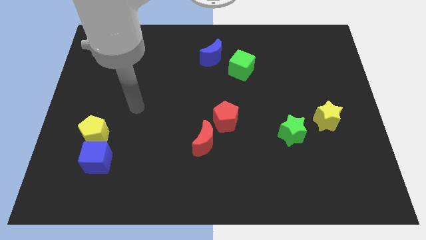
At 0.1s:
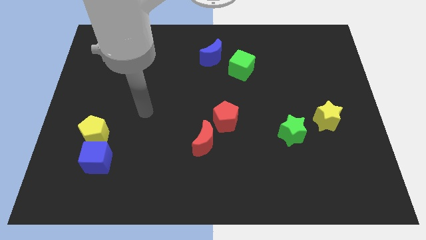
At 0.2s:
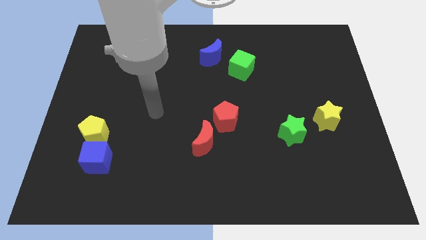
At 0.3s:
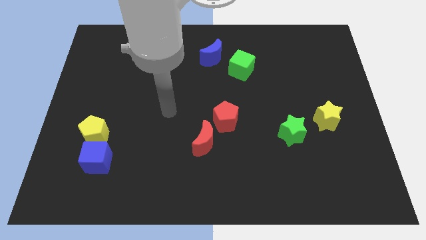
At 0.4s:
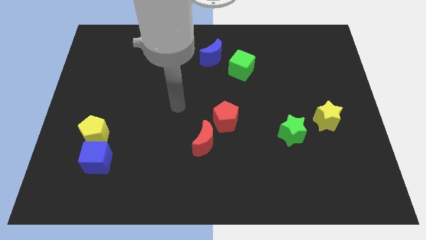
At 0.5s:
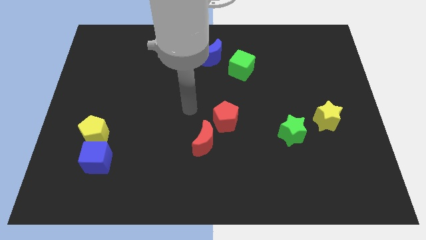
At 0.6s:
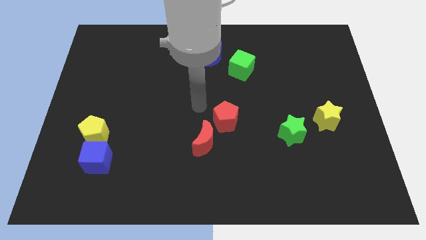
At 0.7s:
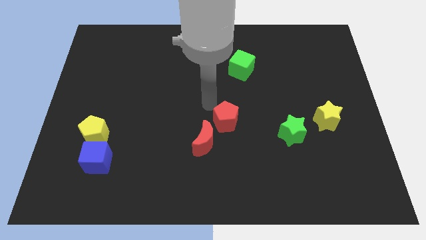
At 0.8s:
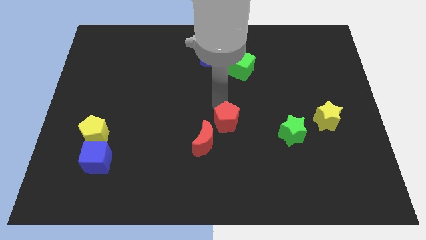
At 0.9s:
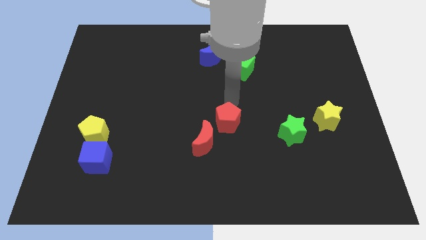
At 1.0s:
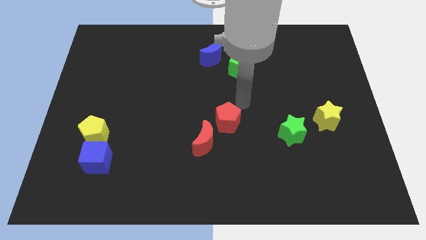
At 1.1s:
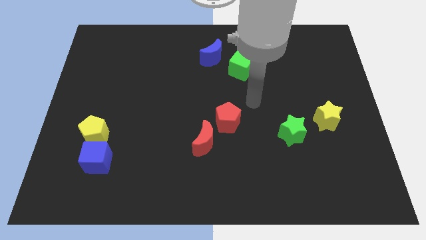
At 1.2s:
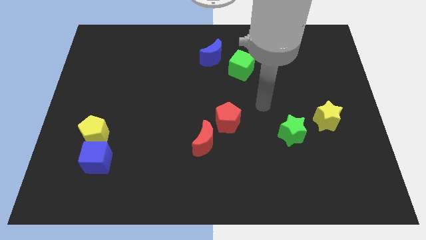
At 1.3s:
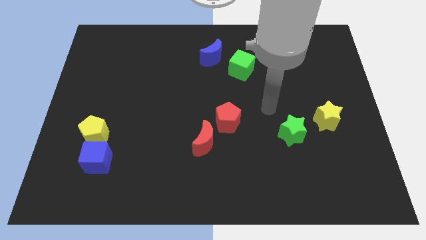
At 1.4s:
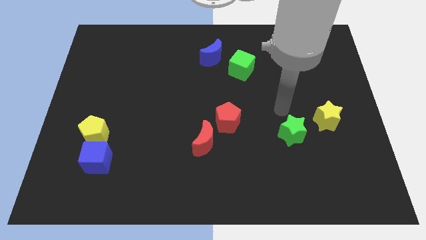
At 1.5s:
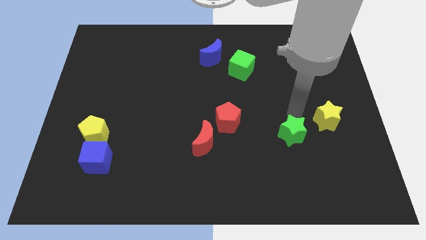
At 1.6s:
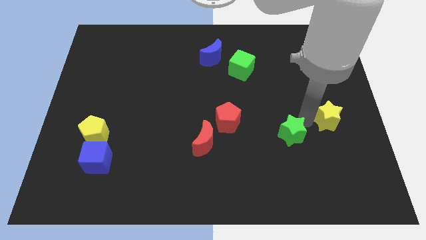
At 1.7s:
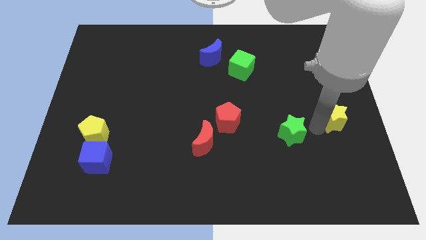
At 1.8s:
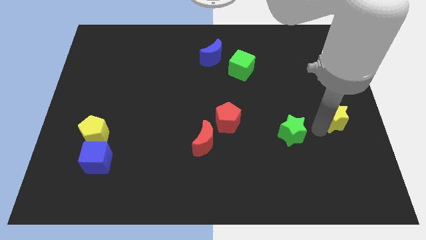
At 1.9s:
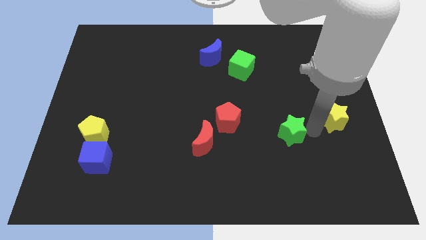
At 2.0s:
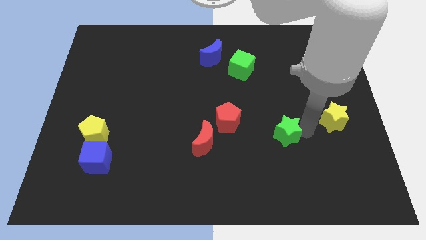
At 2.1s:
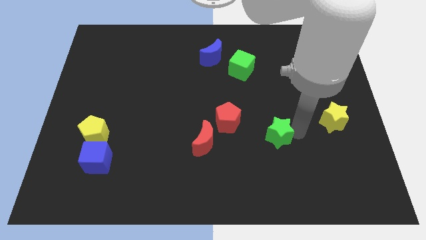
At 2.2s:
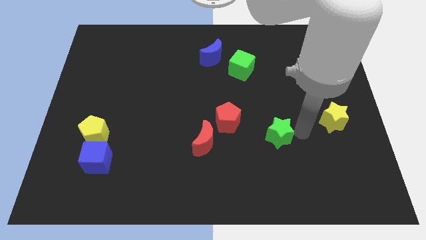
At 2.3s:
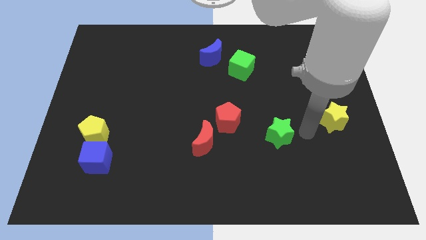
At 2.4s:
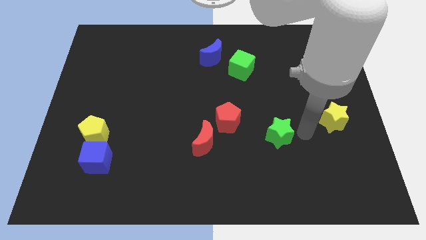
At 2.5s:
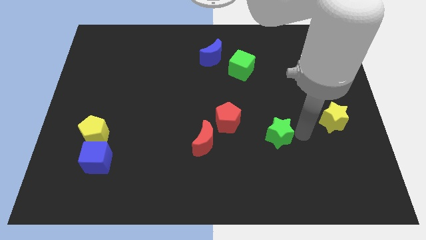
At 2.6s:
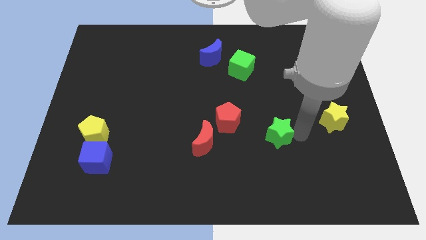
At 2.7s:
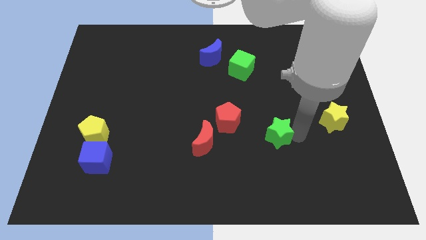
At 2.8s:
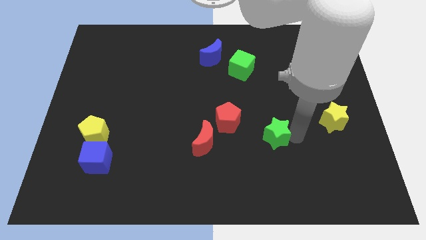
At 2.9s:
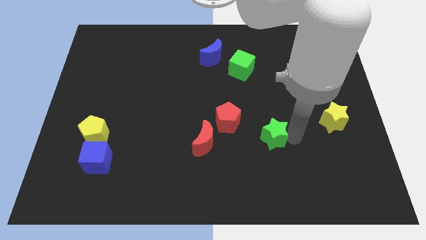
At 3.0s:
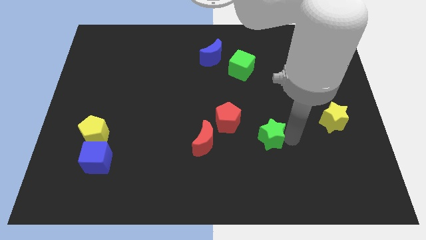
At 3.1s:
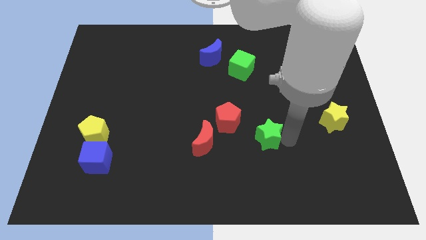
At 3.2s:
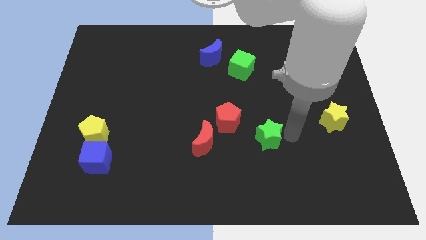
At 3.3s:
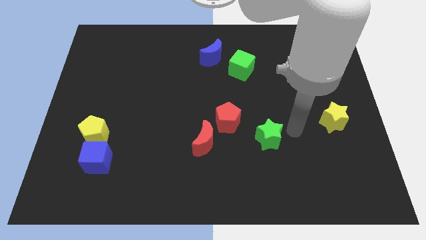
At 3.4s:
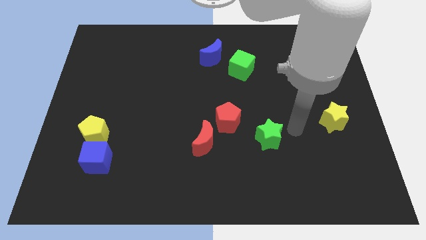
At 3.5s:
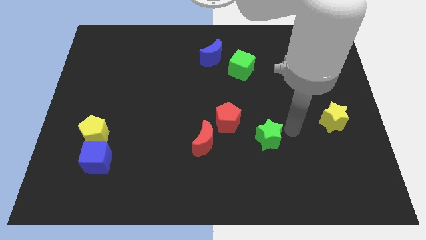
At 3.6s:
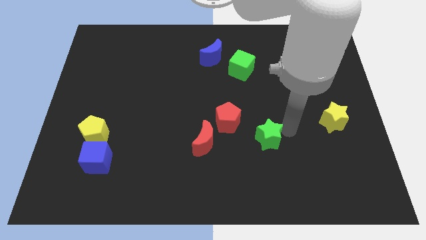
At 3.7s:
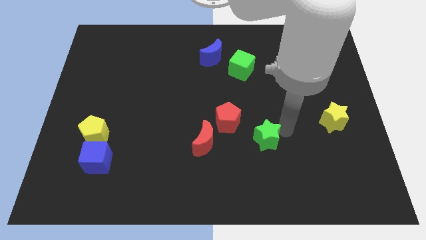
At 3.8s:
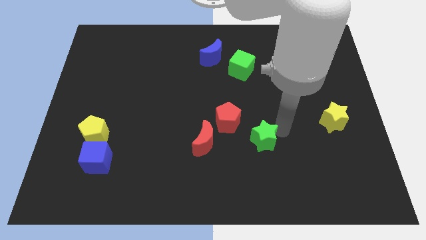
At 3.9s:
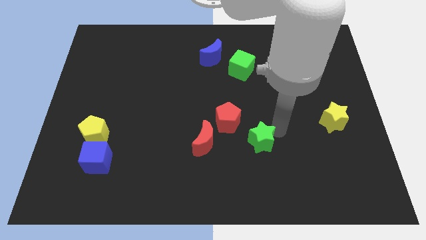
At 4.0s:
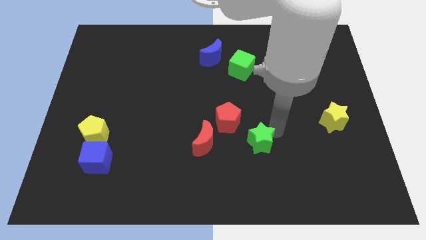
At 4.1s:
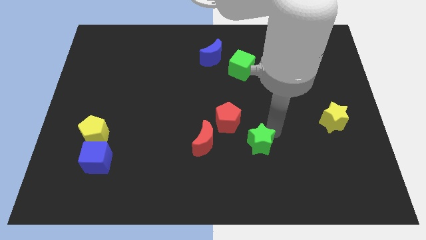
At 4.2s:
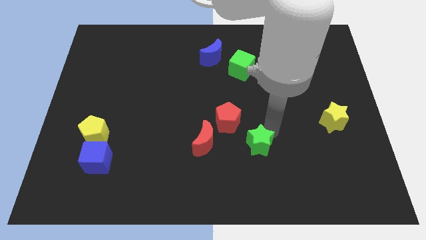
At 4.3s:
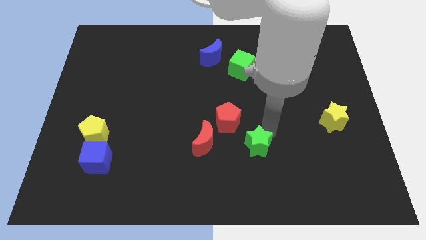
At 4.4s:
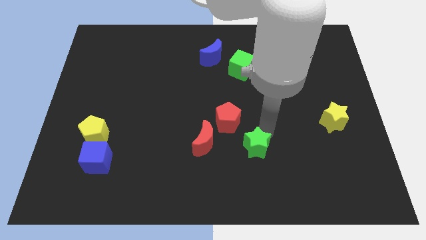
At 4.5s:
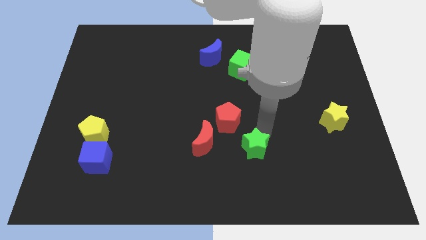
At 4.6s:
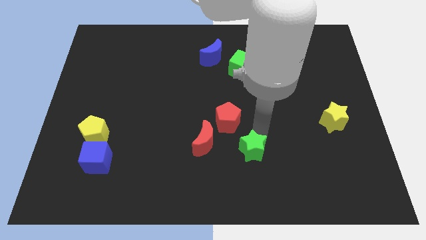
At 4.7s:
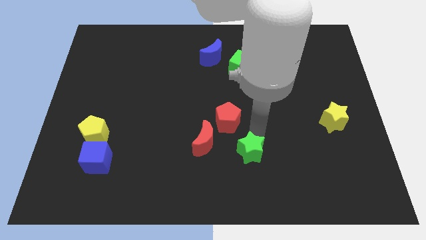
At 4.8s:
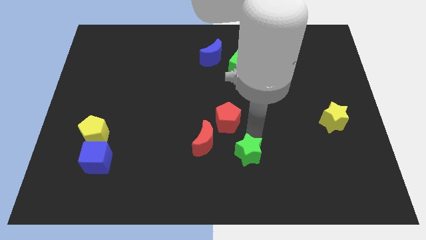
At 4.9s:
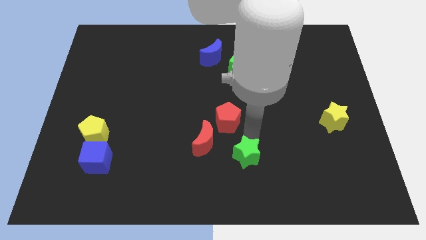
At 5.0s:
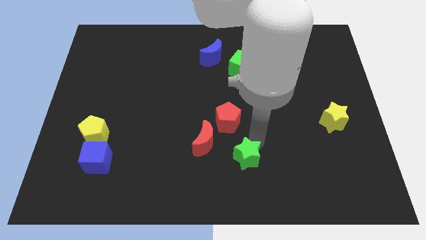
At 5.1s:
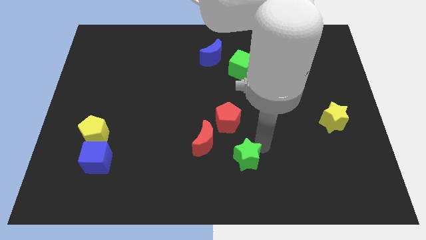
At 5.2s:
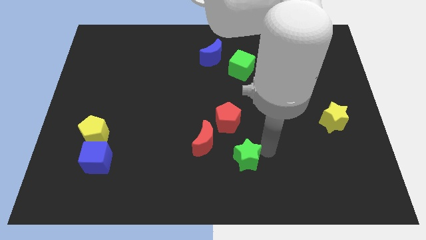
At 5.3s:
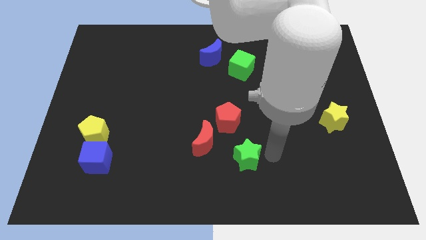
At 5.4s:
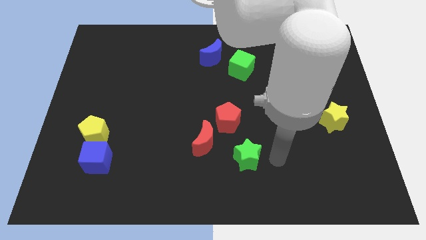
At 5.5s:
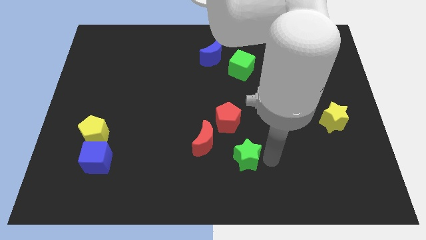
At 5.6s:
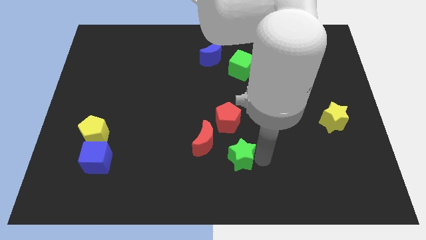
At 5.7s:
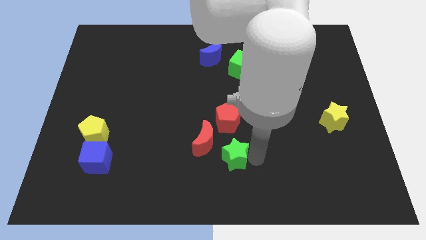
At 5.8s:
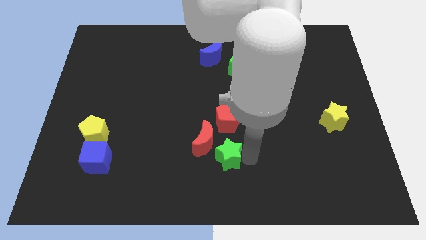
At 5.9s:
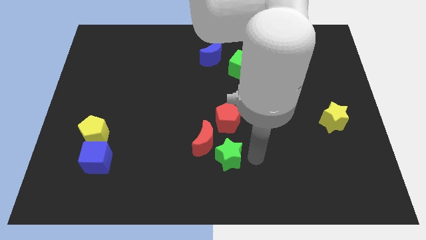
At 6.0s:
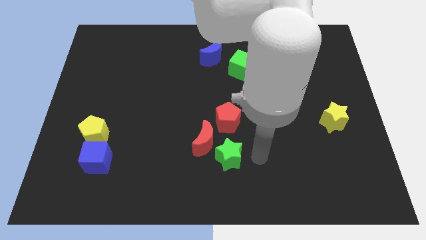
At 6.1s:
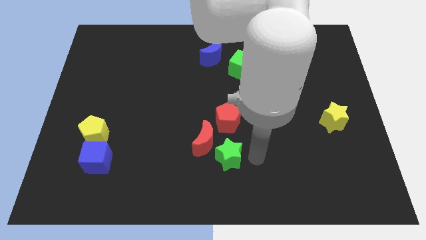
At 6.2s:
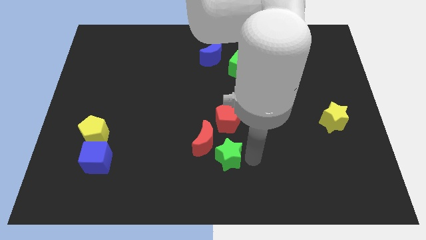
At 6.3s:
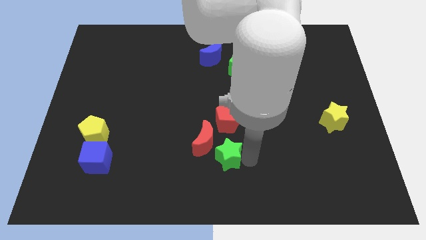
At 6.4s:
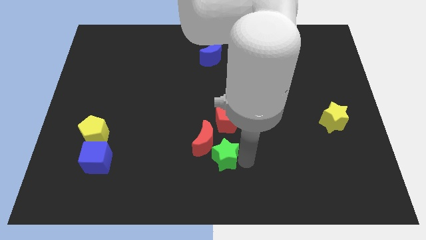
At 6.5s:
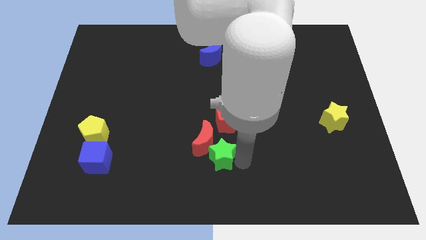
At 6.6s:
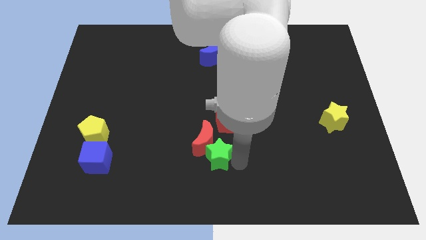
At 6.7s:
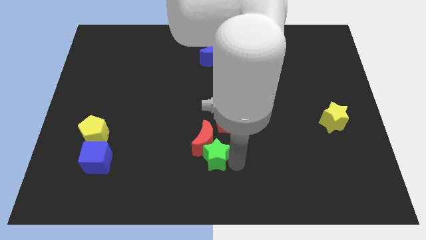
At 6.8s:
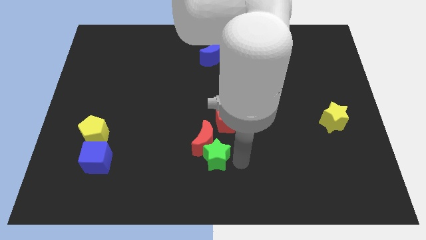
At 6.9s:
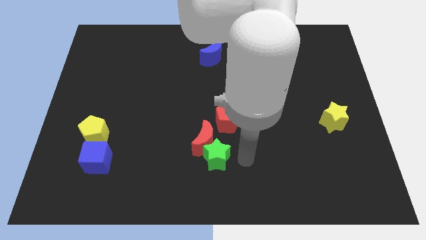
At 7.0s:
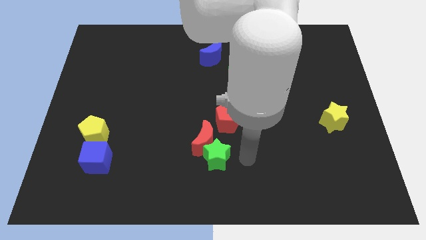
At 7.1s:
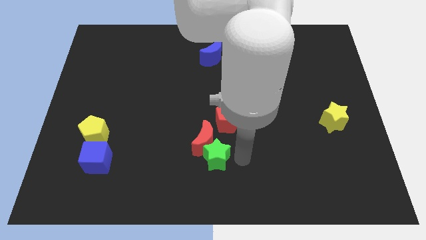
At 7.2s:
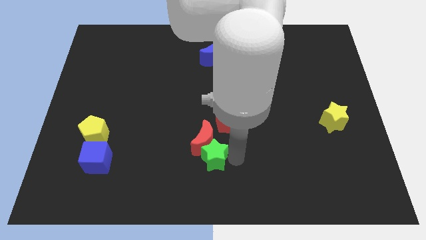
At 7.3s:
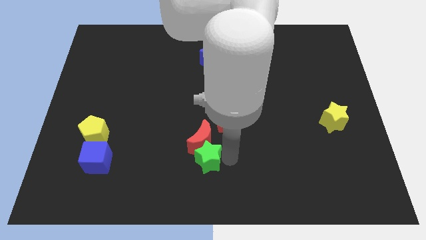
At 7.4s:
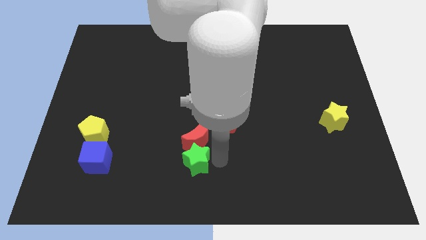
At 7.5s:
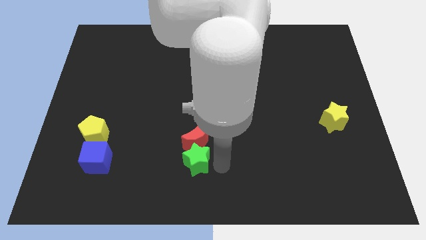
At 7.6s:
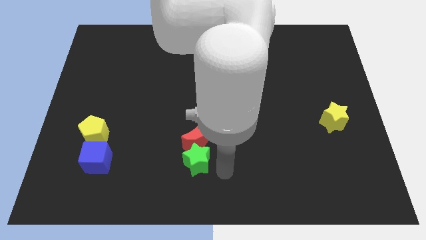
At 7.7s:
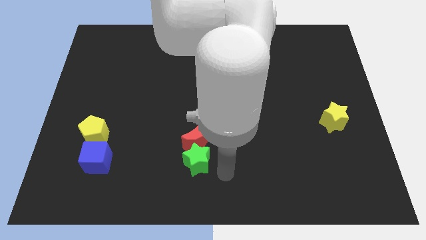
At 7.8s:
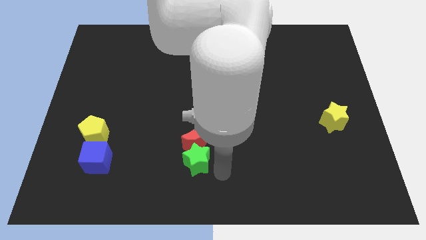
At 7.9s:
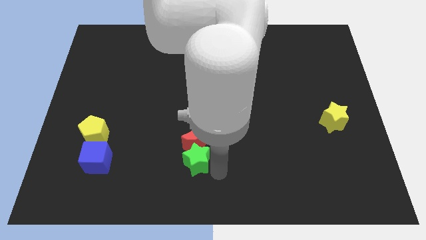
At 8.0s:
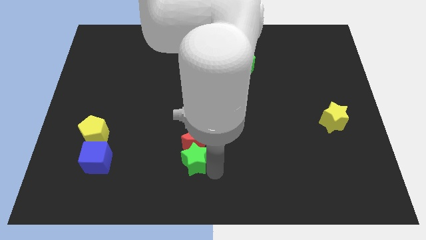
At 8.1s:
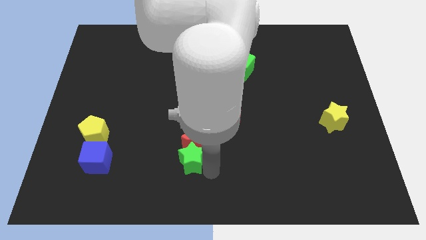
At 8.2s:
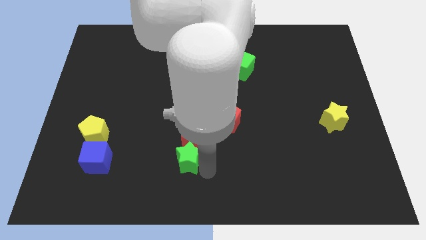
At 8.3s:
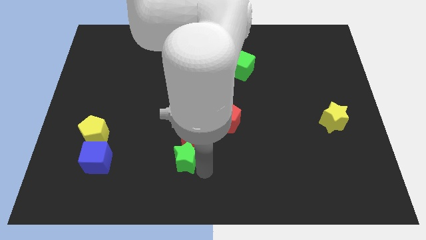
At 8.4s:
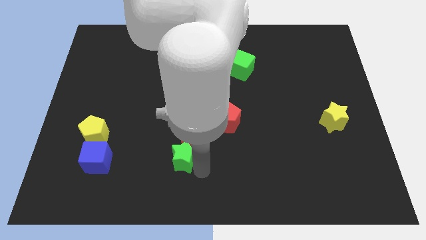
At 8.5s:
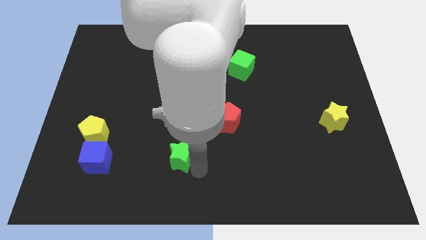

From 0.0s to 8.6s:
put the green star to the left side of the red moon
